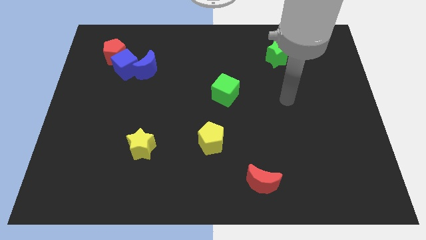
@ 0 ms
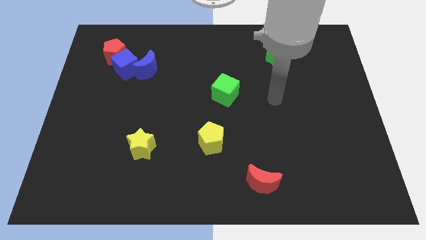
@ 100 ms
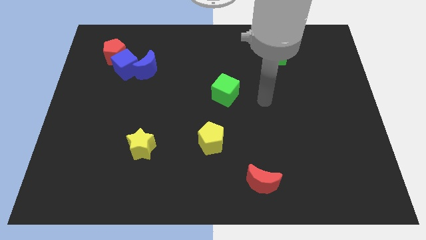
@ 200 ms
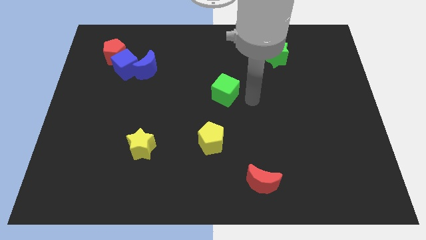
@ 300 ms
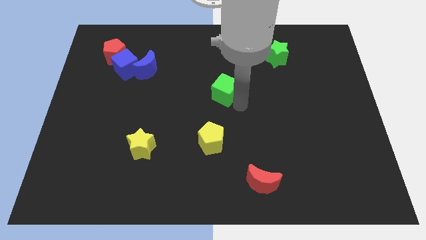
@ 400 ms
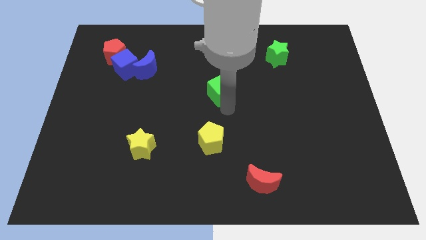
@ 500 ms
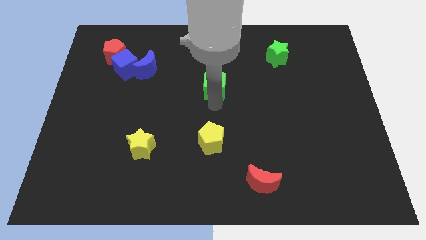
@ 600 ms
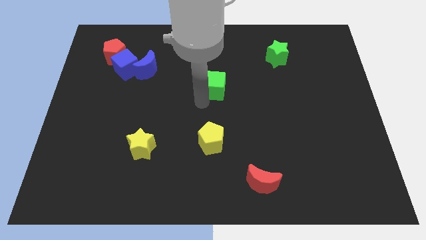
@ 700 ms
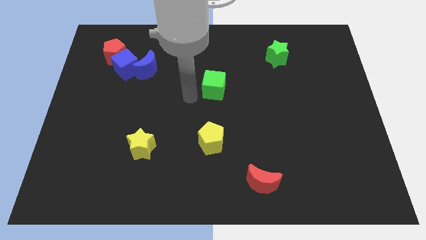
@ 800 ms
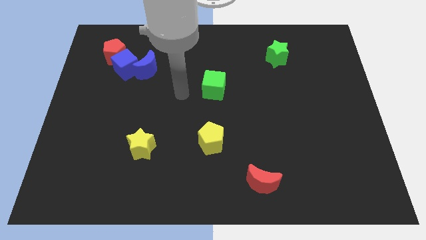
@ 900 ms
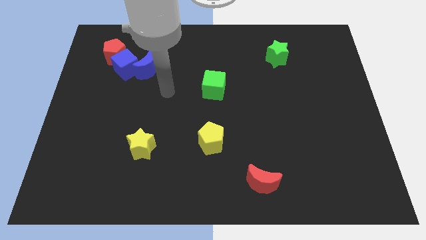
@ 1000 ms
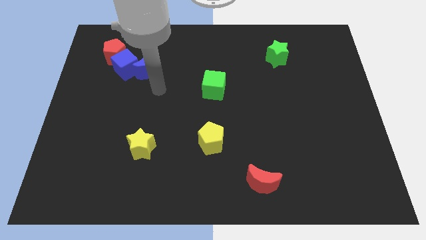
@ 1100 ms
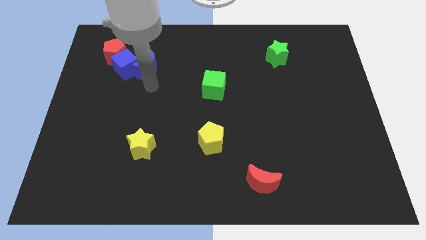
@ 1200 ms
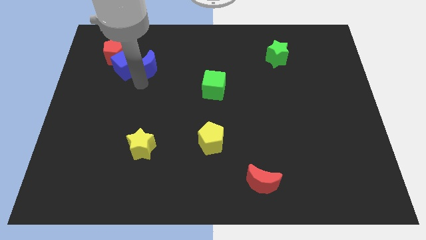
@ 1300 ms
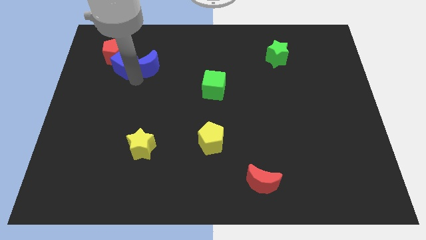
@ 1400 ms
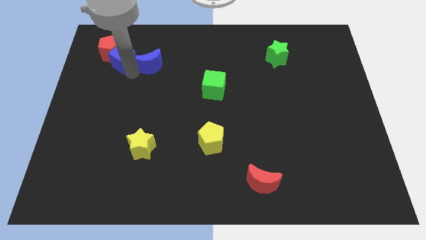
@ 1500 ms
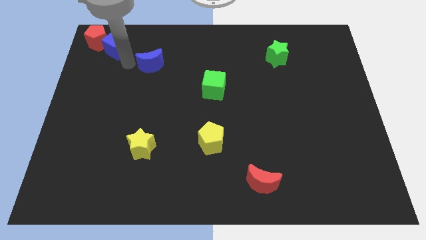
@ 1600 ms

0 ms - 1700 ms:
separate the blue moon from the blue cube

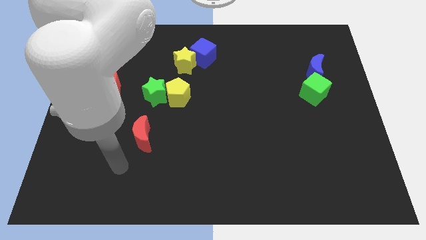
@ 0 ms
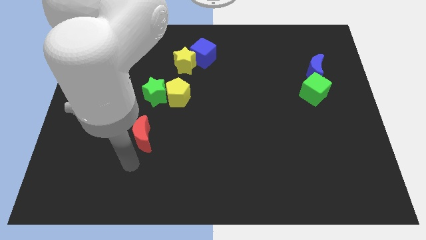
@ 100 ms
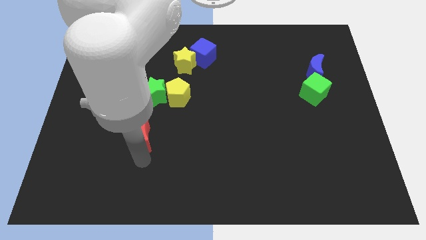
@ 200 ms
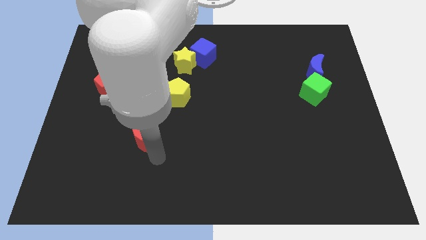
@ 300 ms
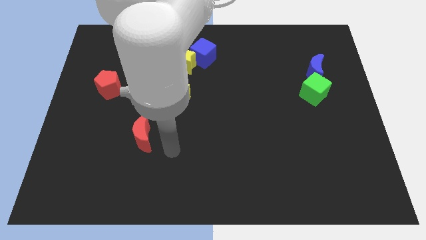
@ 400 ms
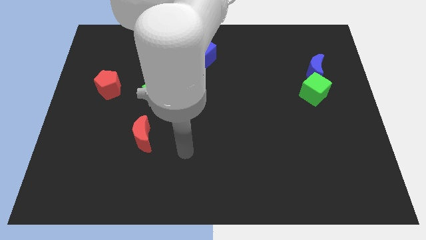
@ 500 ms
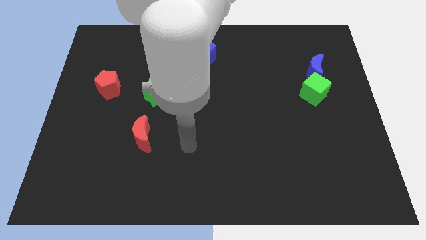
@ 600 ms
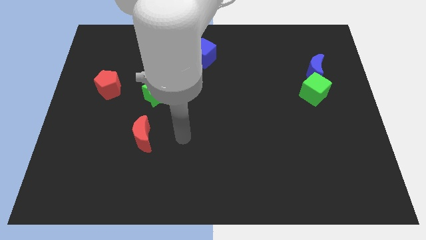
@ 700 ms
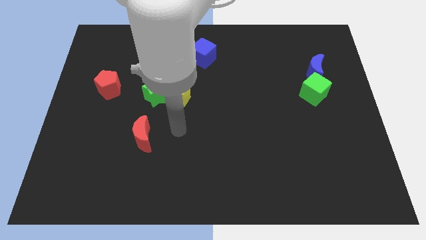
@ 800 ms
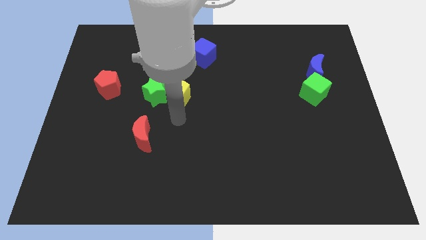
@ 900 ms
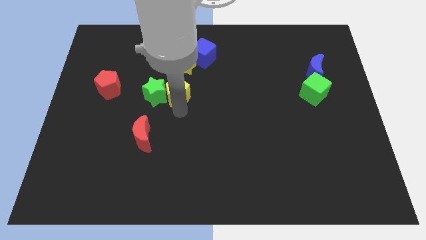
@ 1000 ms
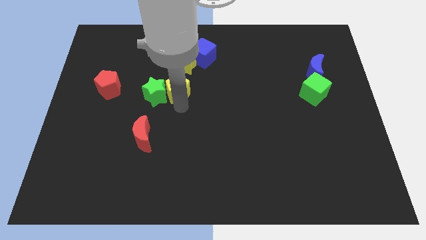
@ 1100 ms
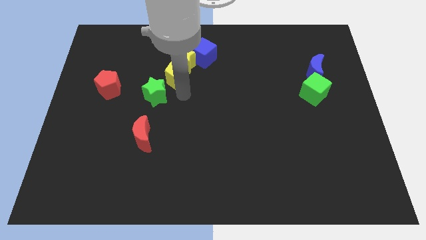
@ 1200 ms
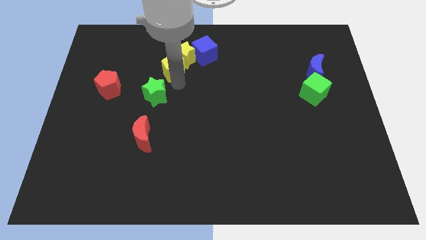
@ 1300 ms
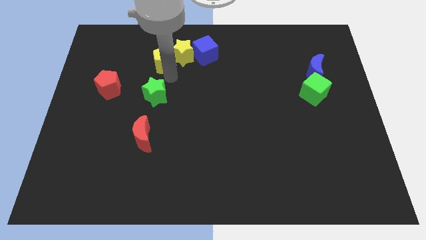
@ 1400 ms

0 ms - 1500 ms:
pull the green star apart from the yellow pentagon

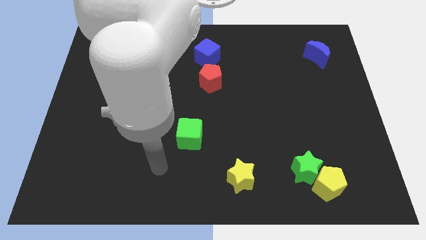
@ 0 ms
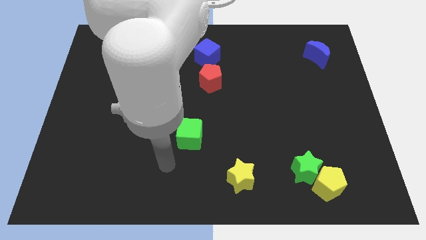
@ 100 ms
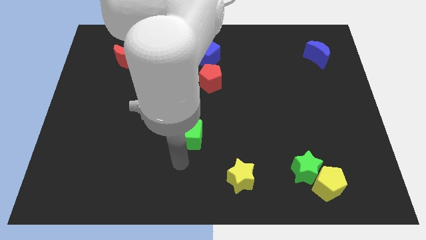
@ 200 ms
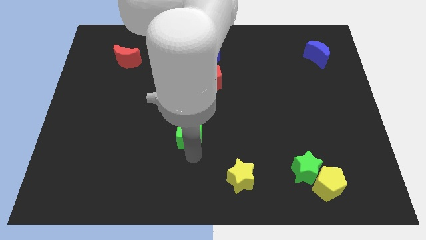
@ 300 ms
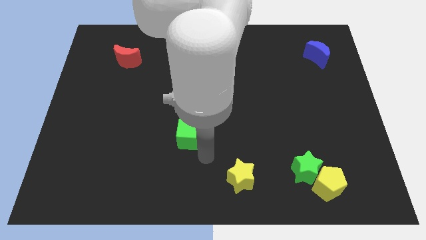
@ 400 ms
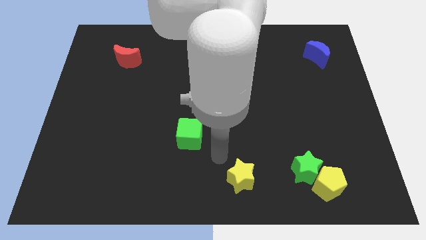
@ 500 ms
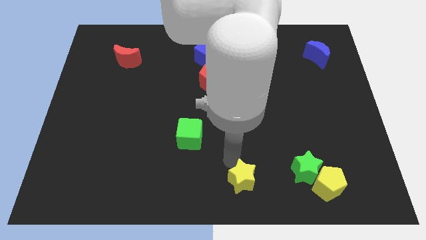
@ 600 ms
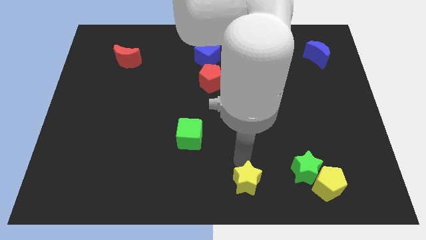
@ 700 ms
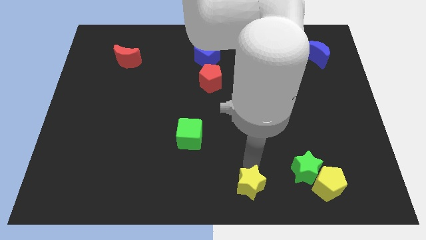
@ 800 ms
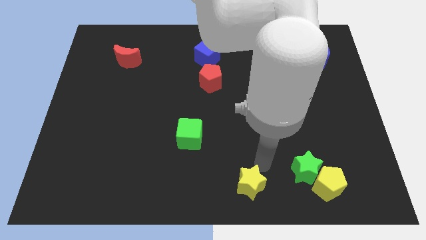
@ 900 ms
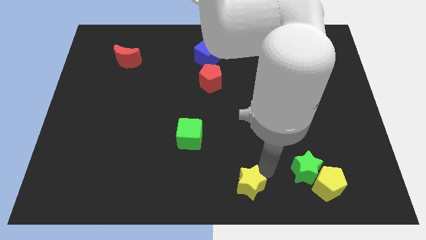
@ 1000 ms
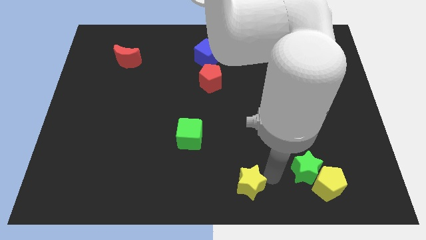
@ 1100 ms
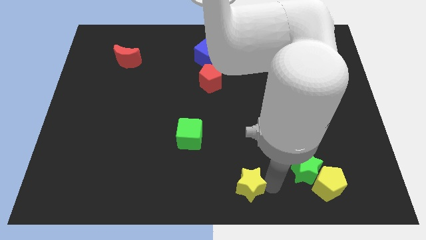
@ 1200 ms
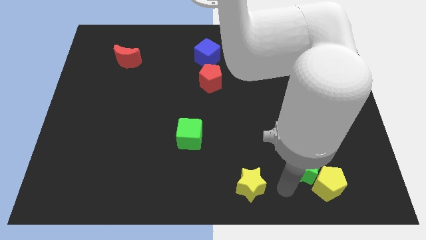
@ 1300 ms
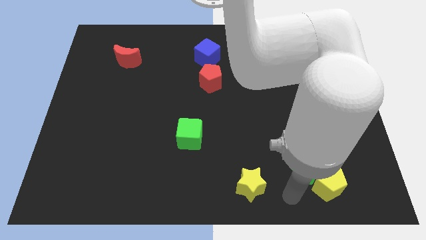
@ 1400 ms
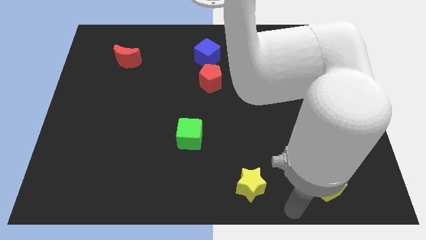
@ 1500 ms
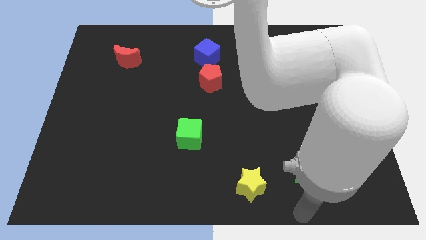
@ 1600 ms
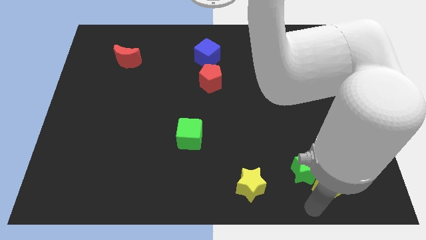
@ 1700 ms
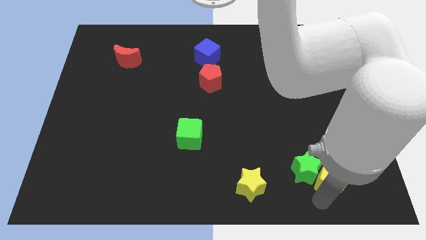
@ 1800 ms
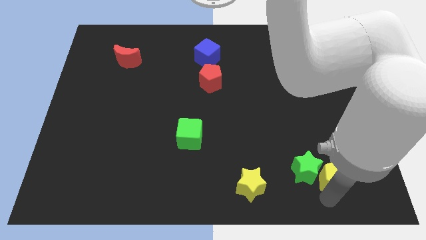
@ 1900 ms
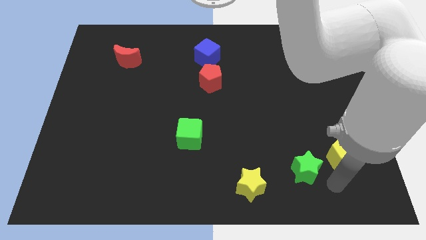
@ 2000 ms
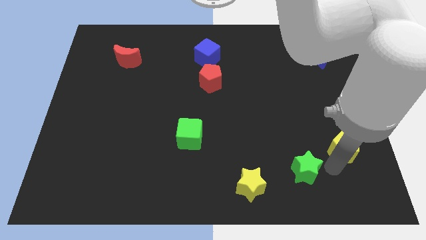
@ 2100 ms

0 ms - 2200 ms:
move the green star away from the yellow pentagon

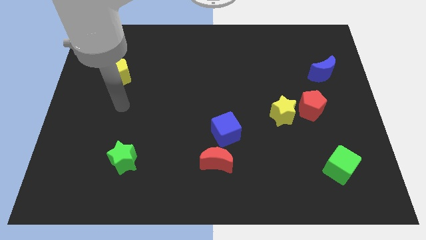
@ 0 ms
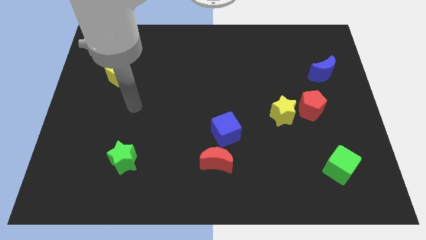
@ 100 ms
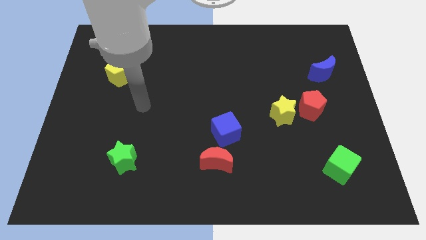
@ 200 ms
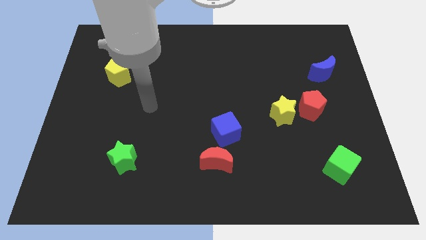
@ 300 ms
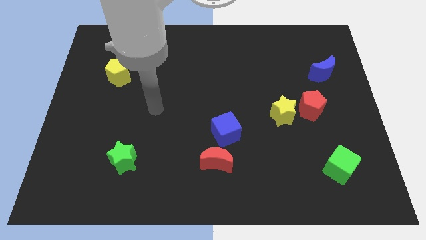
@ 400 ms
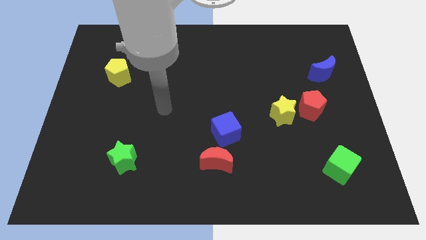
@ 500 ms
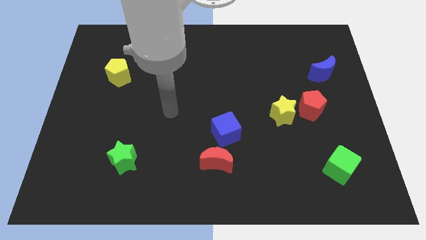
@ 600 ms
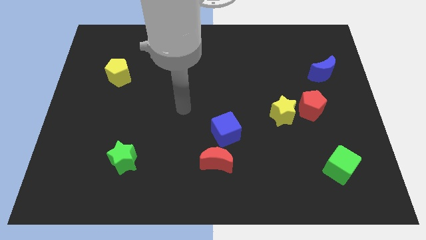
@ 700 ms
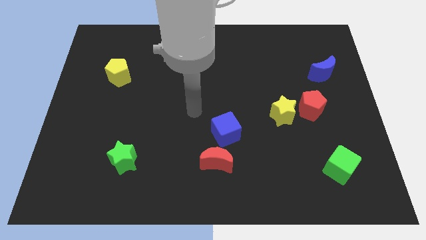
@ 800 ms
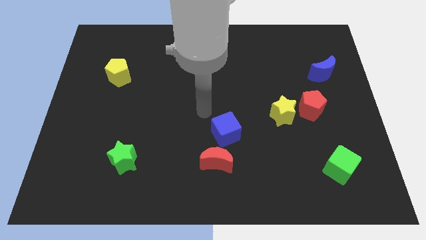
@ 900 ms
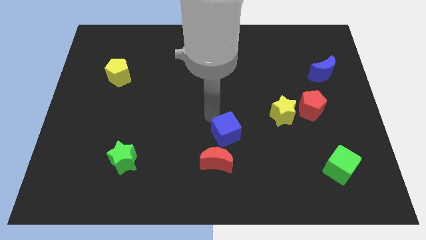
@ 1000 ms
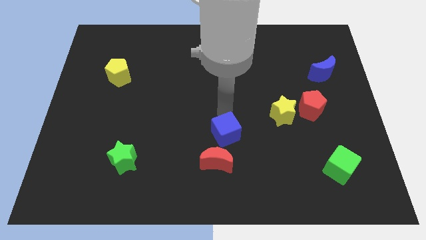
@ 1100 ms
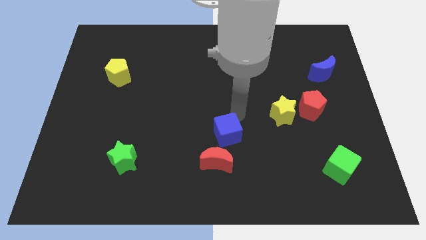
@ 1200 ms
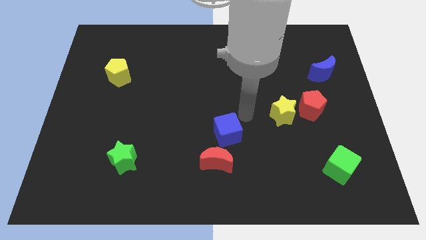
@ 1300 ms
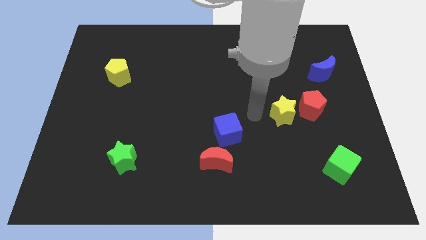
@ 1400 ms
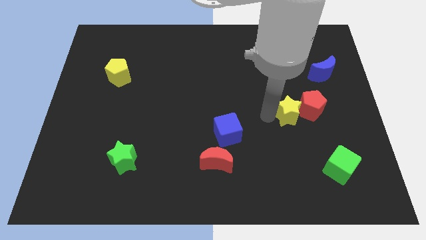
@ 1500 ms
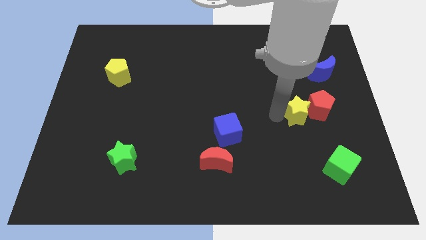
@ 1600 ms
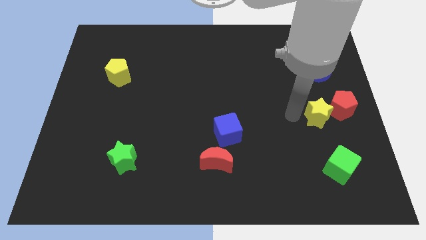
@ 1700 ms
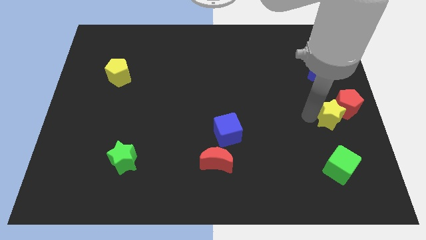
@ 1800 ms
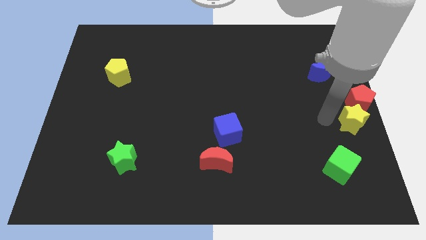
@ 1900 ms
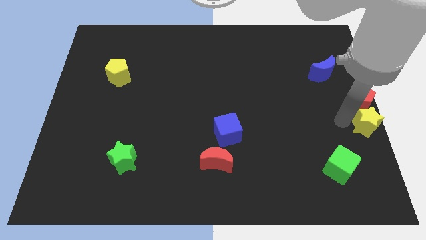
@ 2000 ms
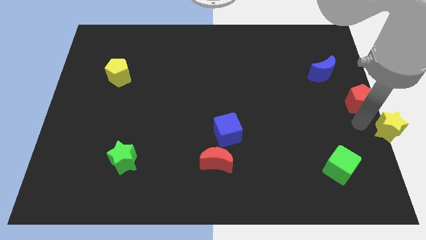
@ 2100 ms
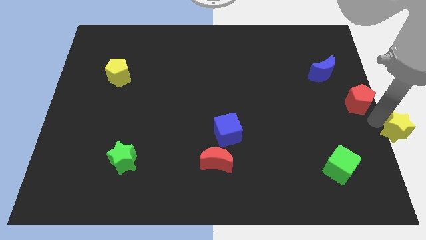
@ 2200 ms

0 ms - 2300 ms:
move the red pentagon away from the yellow star

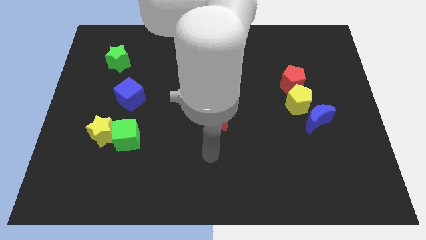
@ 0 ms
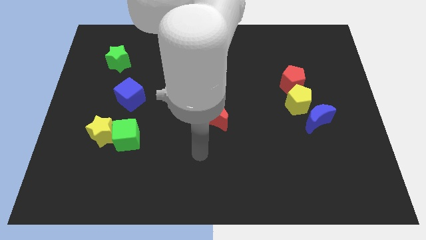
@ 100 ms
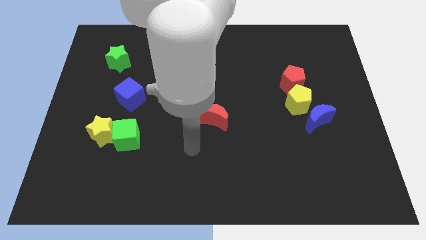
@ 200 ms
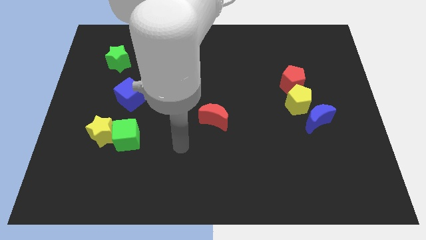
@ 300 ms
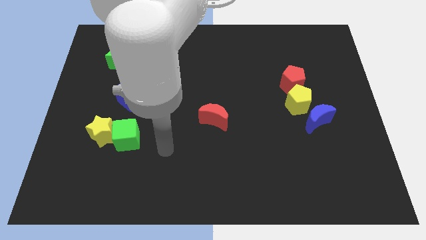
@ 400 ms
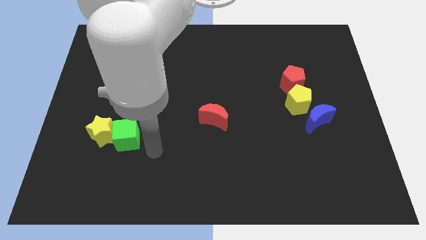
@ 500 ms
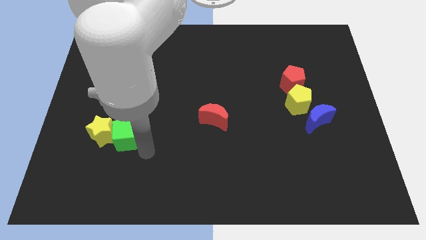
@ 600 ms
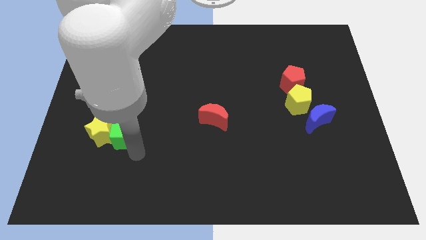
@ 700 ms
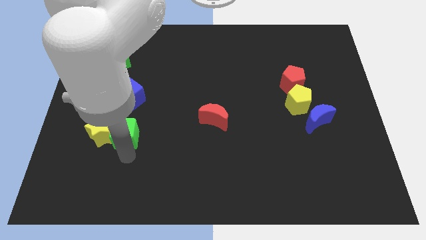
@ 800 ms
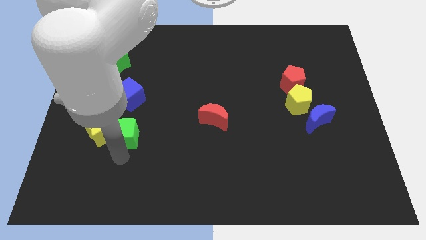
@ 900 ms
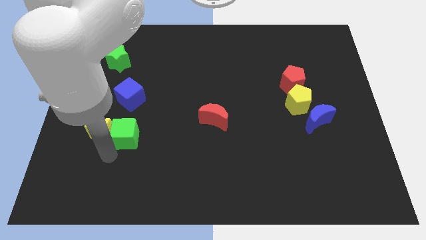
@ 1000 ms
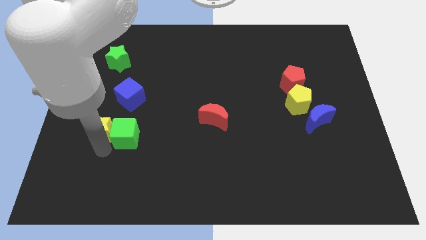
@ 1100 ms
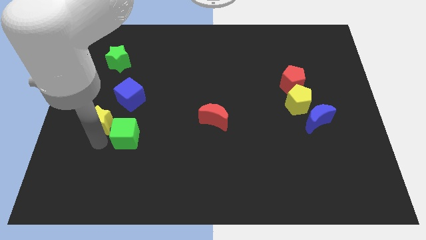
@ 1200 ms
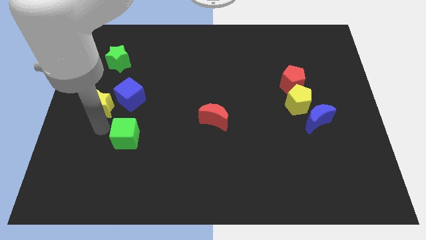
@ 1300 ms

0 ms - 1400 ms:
pull the green cube apart from the yellow star

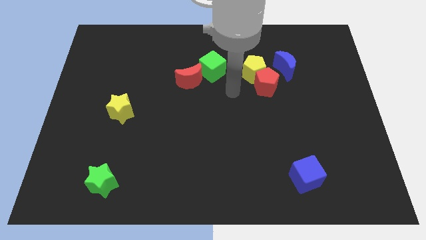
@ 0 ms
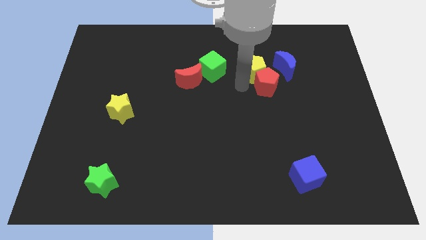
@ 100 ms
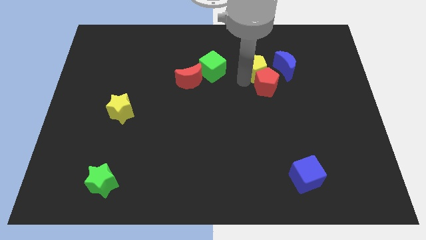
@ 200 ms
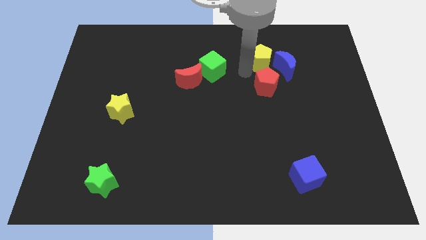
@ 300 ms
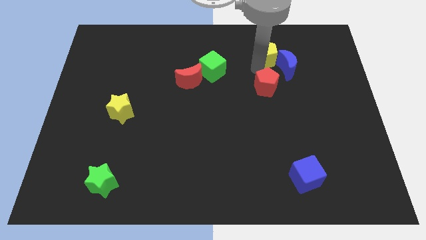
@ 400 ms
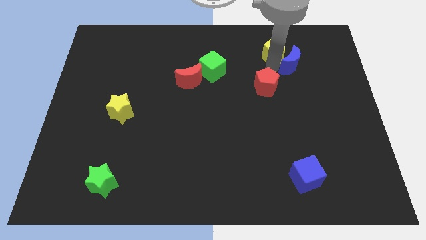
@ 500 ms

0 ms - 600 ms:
pull the red pentagon apart from the yellow pentagon and blue moon
